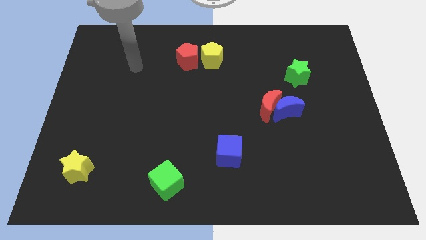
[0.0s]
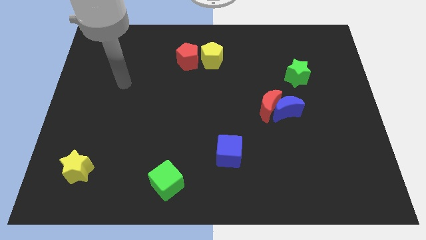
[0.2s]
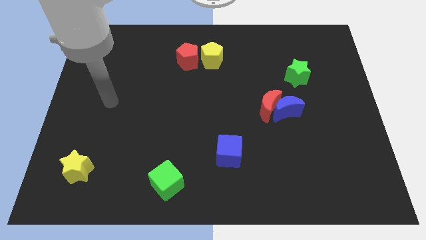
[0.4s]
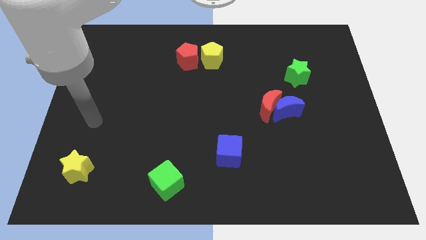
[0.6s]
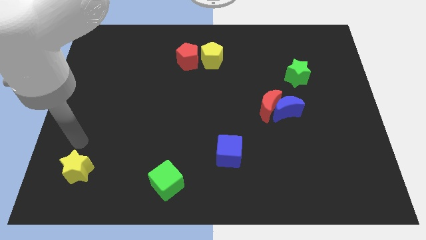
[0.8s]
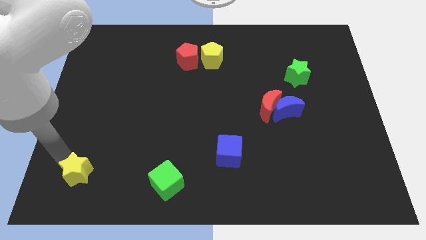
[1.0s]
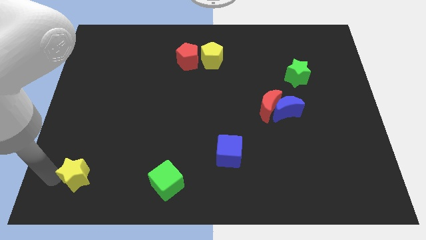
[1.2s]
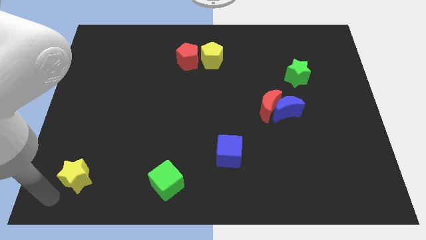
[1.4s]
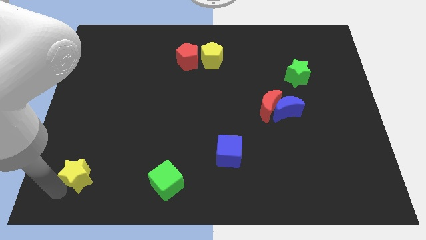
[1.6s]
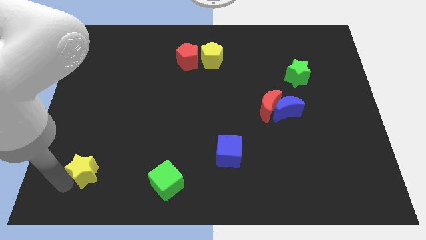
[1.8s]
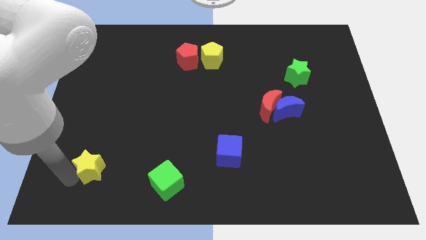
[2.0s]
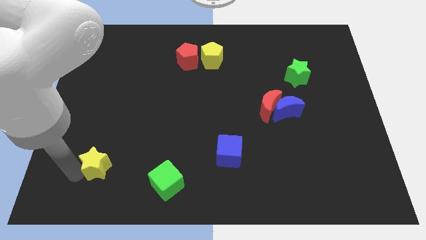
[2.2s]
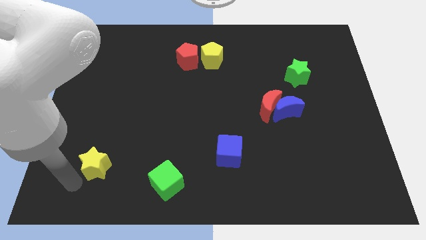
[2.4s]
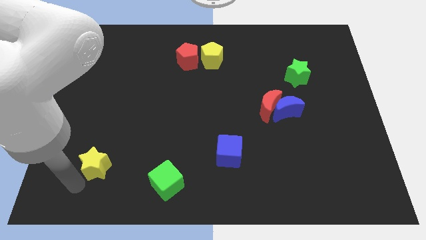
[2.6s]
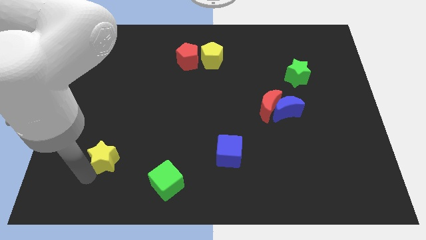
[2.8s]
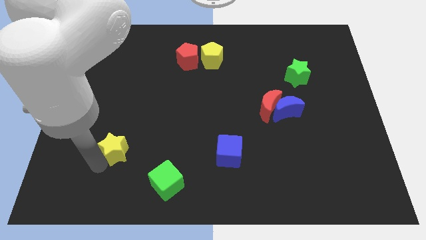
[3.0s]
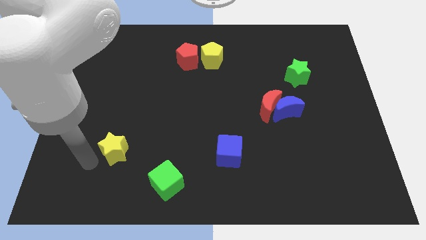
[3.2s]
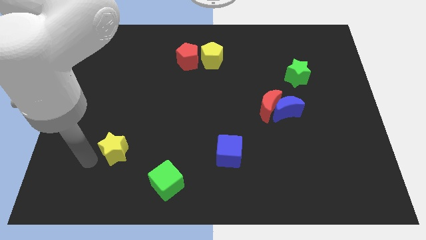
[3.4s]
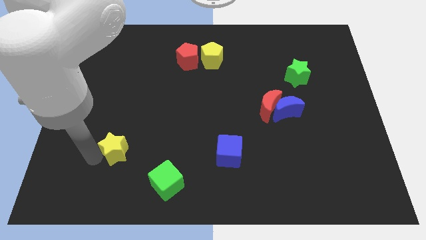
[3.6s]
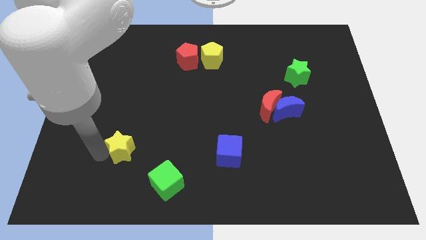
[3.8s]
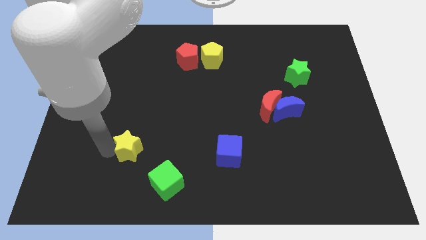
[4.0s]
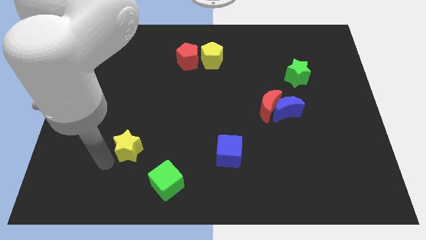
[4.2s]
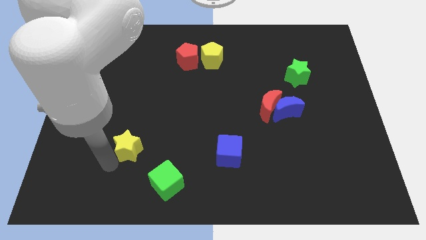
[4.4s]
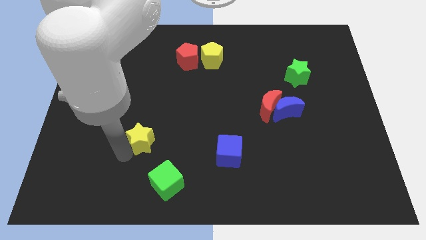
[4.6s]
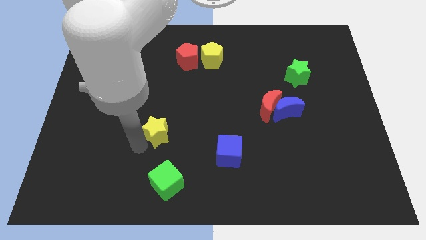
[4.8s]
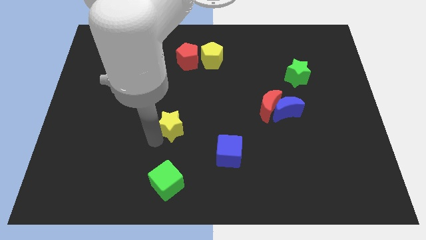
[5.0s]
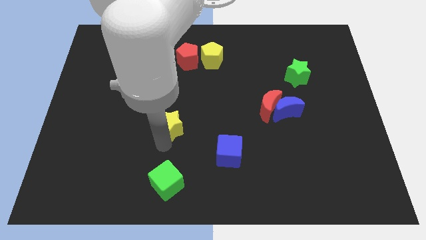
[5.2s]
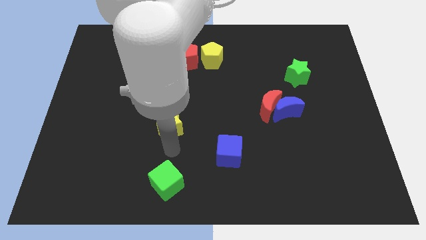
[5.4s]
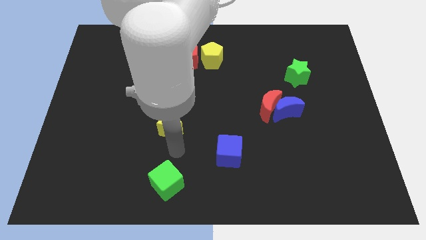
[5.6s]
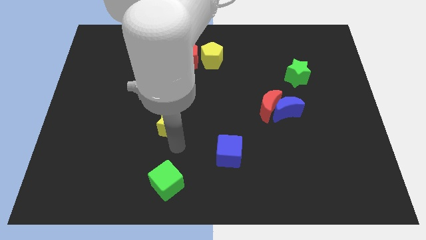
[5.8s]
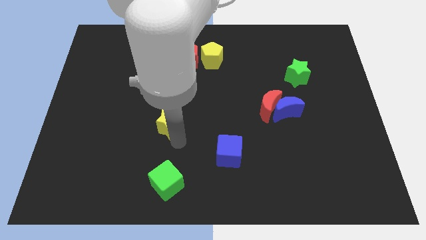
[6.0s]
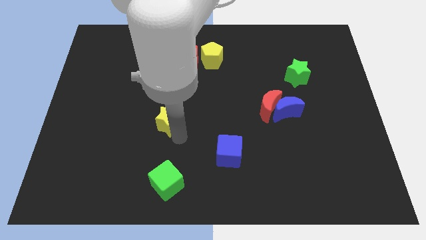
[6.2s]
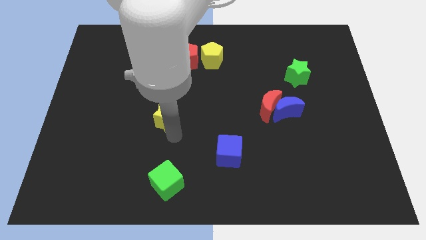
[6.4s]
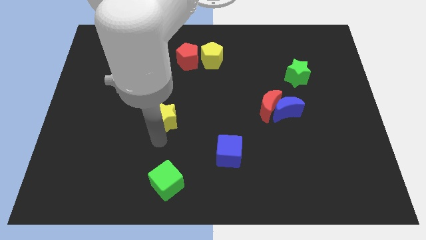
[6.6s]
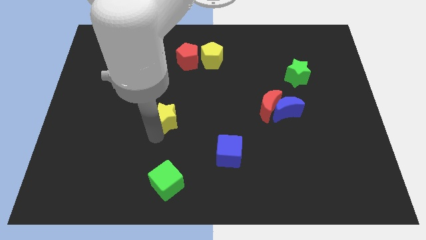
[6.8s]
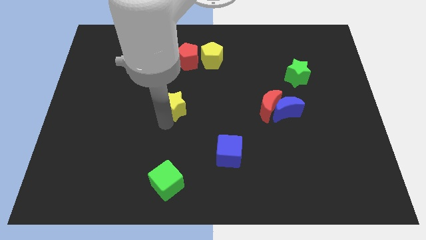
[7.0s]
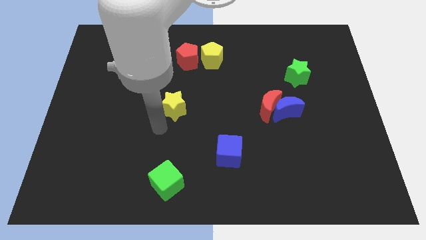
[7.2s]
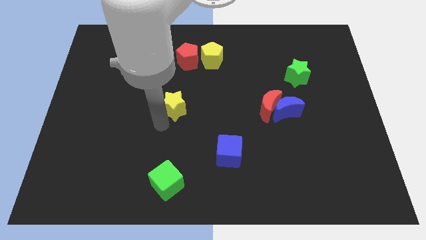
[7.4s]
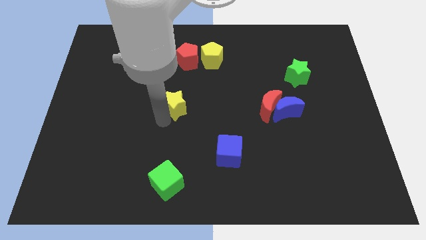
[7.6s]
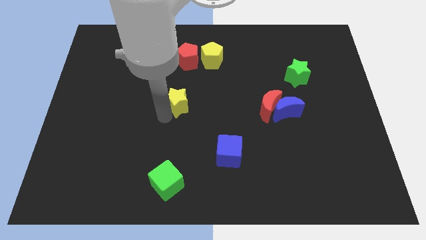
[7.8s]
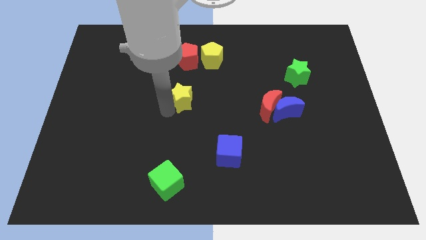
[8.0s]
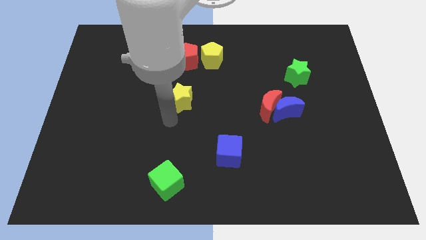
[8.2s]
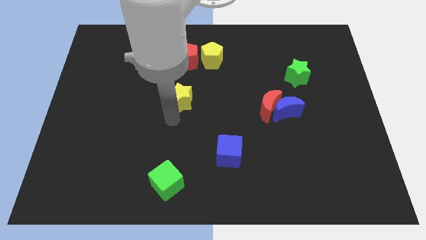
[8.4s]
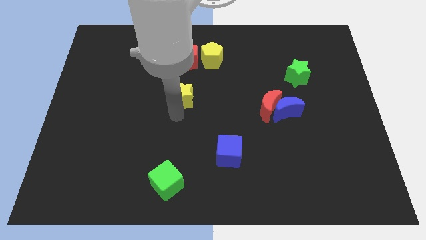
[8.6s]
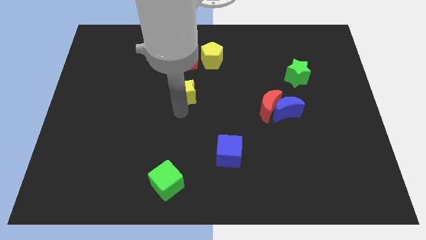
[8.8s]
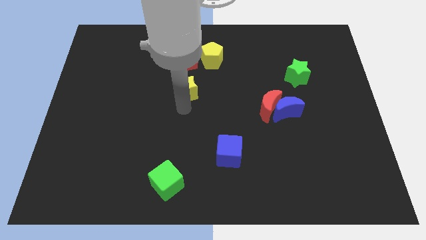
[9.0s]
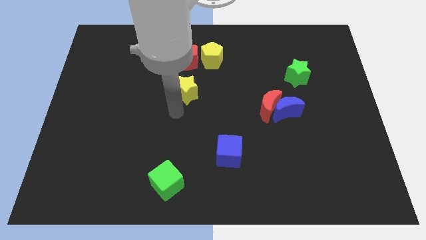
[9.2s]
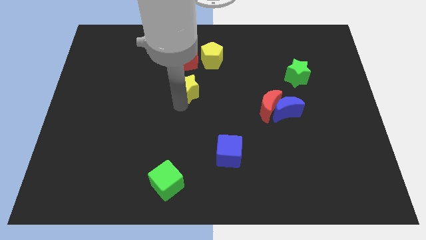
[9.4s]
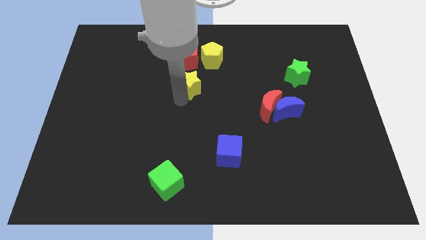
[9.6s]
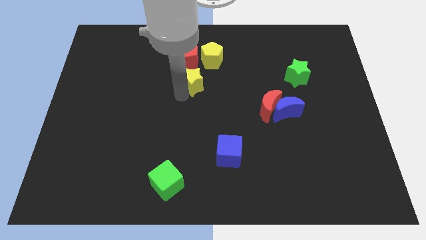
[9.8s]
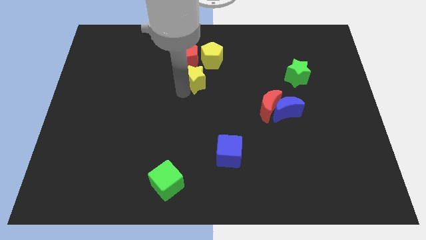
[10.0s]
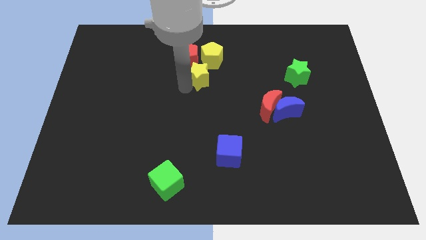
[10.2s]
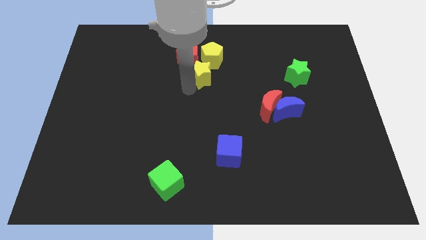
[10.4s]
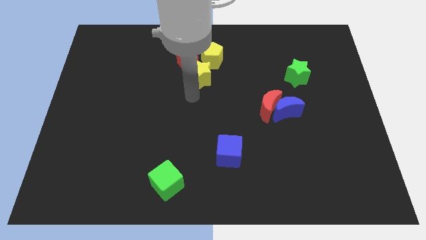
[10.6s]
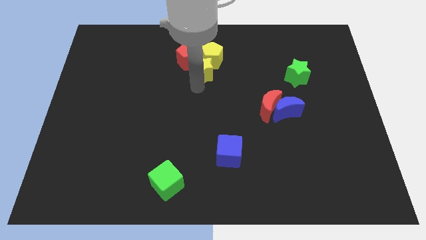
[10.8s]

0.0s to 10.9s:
push the yellow star close to the yellow pentagon

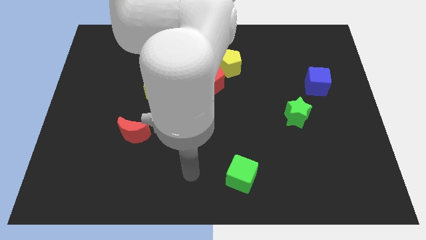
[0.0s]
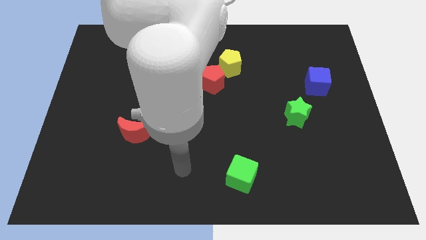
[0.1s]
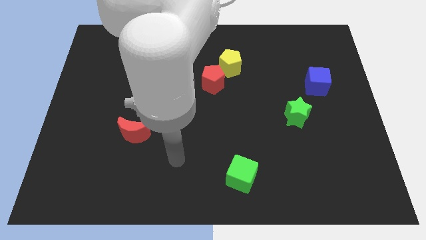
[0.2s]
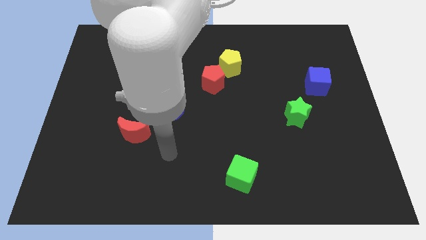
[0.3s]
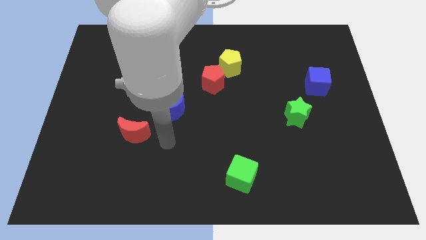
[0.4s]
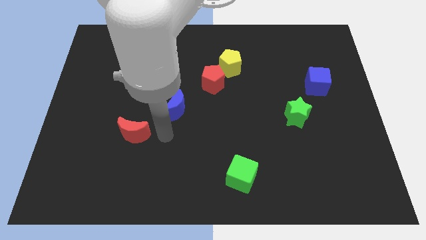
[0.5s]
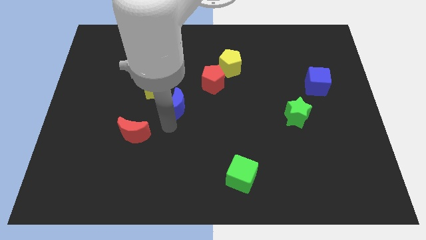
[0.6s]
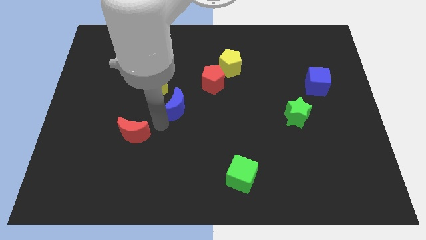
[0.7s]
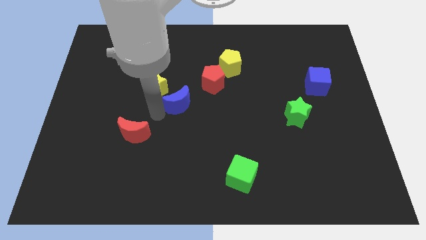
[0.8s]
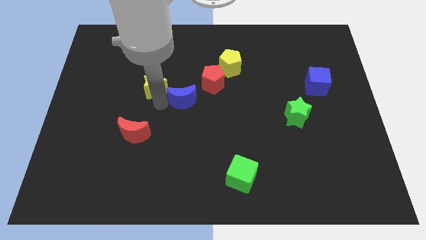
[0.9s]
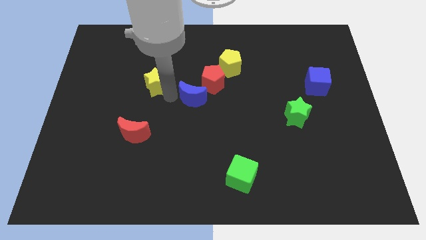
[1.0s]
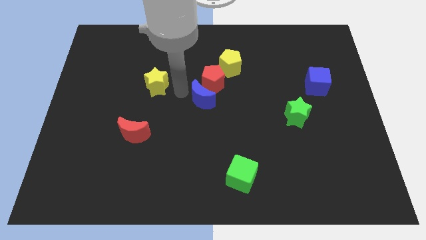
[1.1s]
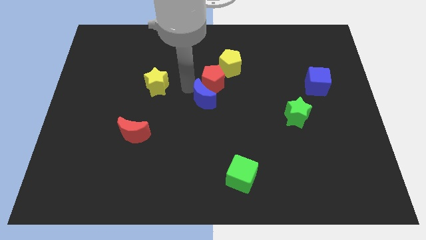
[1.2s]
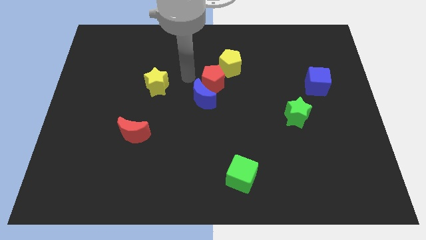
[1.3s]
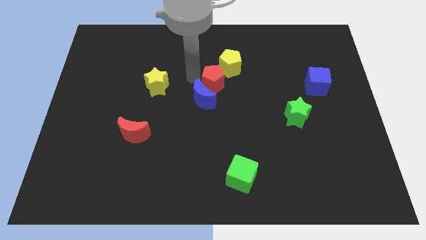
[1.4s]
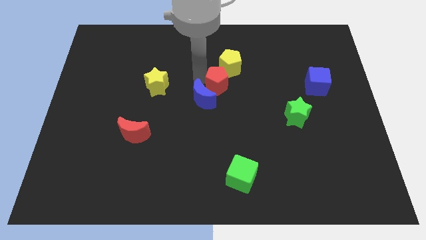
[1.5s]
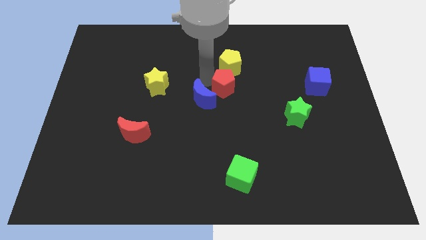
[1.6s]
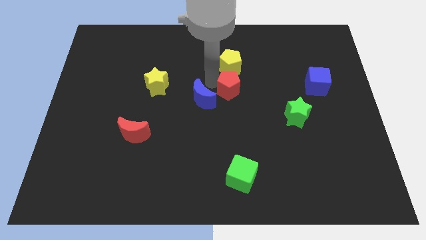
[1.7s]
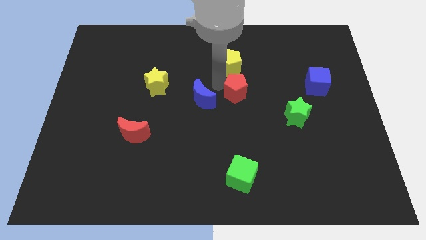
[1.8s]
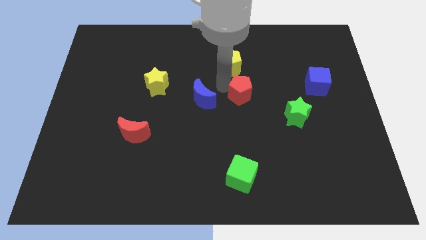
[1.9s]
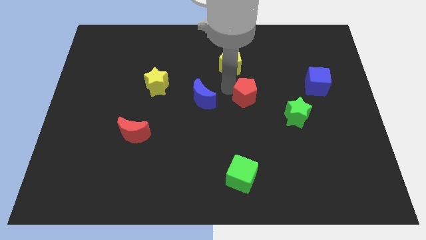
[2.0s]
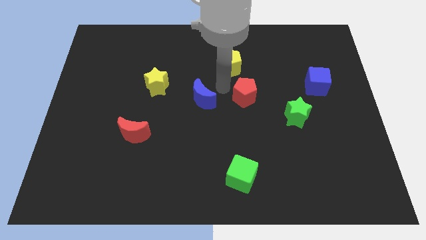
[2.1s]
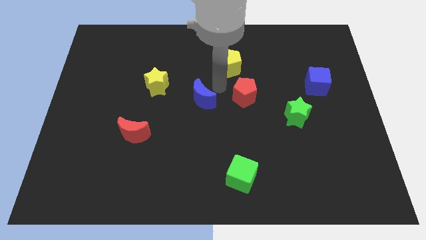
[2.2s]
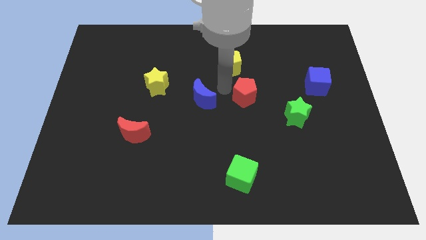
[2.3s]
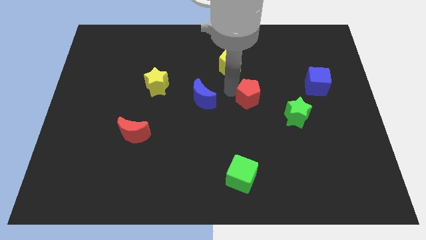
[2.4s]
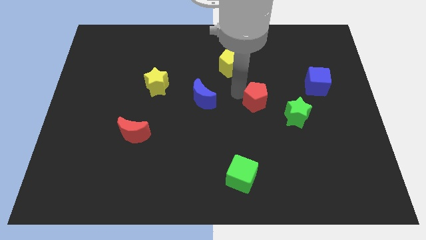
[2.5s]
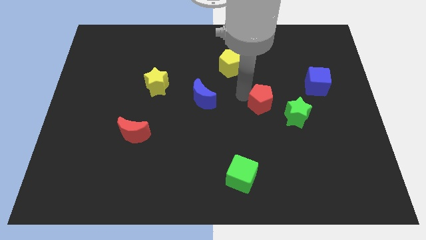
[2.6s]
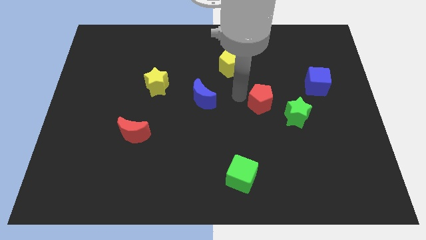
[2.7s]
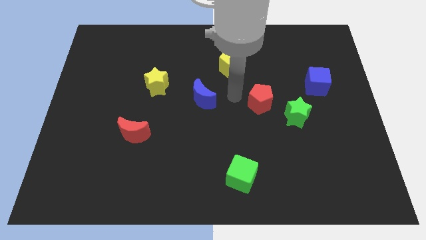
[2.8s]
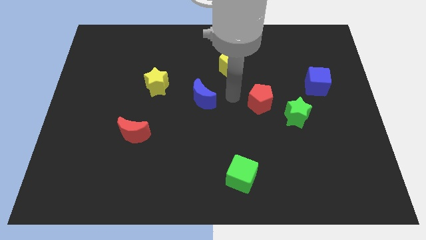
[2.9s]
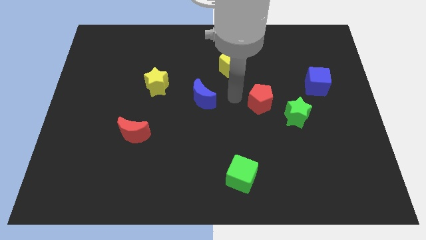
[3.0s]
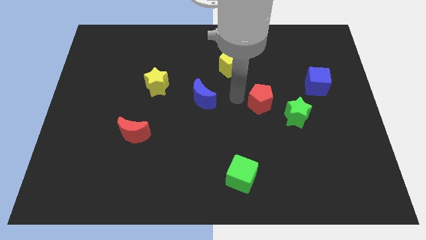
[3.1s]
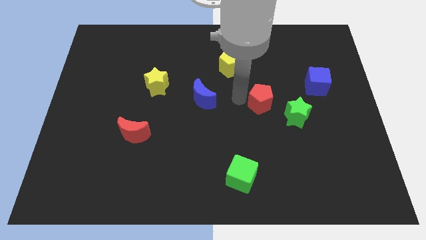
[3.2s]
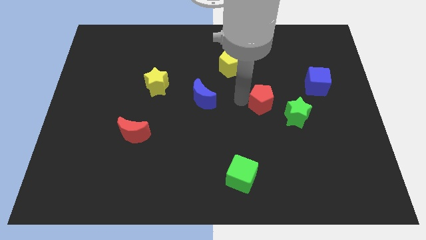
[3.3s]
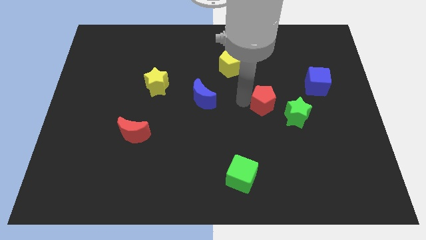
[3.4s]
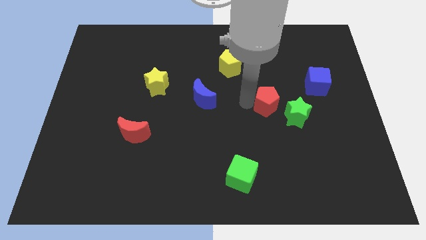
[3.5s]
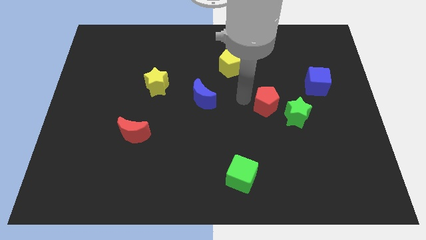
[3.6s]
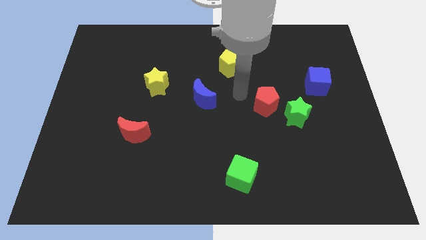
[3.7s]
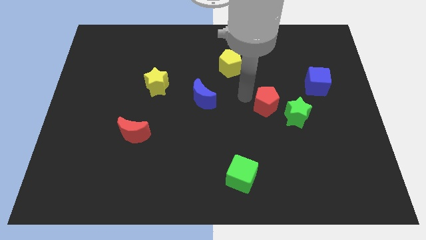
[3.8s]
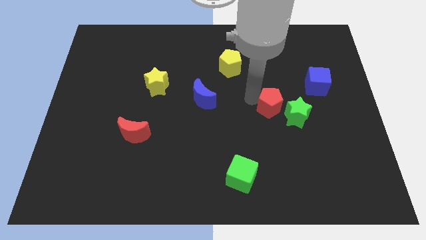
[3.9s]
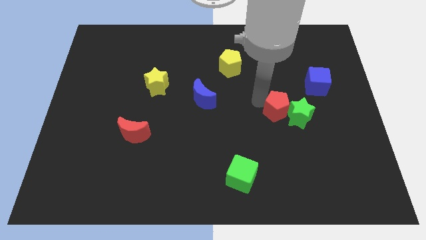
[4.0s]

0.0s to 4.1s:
slide the red pentagon to the green star
